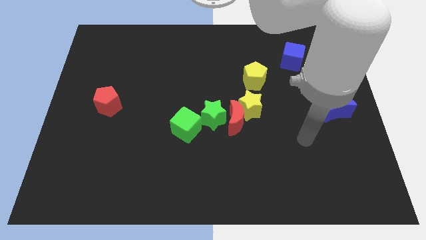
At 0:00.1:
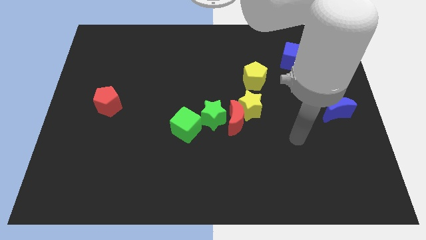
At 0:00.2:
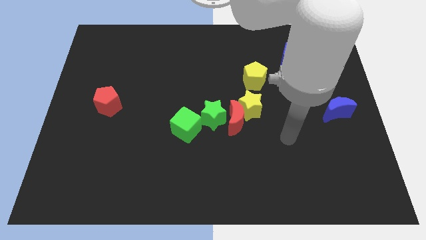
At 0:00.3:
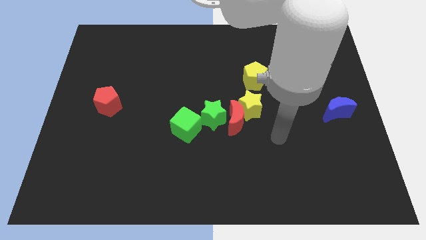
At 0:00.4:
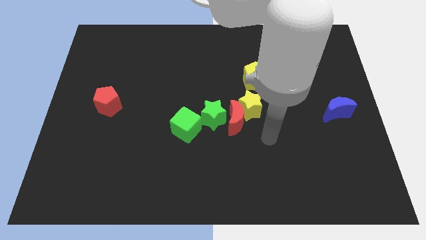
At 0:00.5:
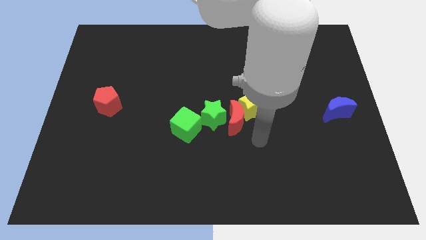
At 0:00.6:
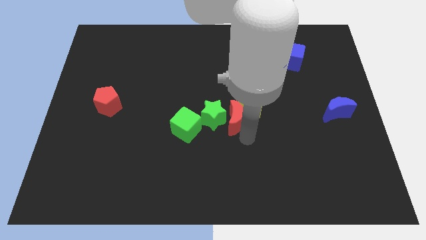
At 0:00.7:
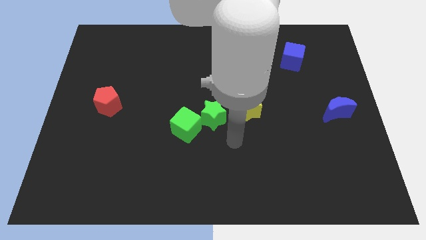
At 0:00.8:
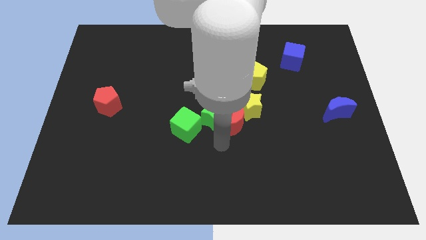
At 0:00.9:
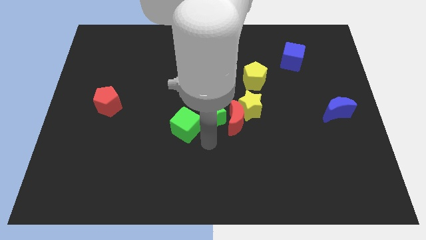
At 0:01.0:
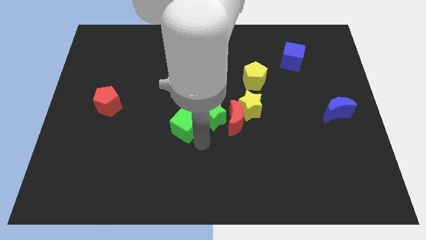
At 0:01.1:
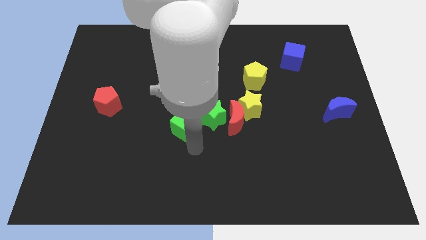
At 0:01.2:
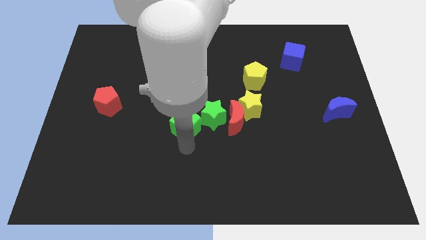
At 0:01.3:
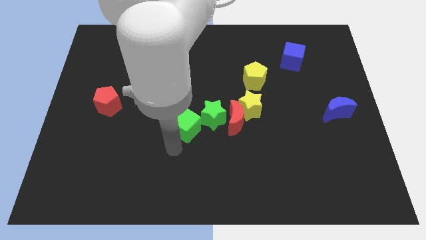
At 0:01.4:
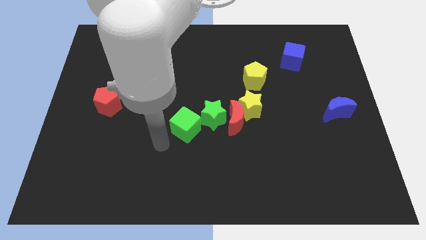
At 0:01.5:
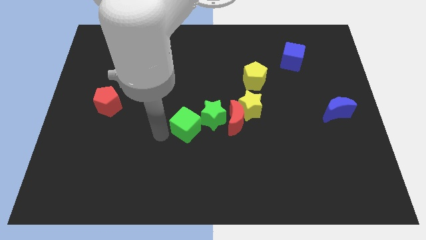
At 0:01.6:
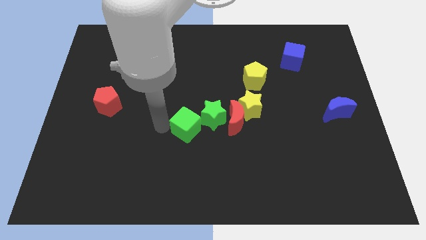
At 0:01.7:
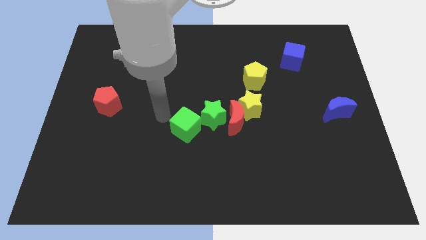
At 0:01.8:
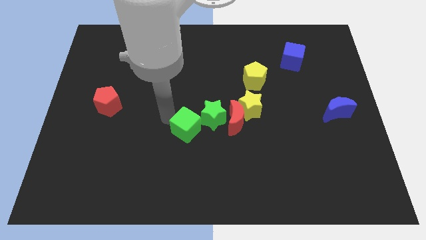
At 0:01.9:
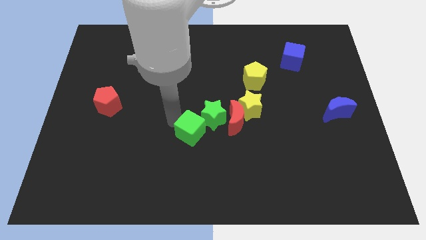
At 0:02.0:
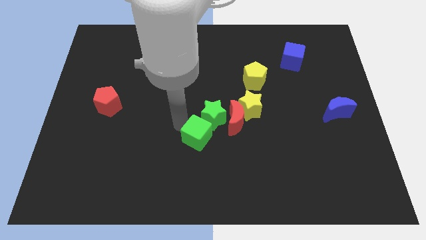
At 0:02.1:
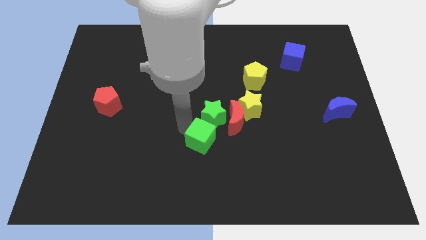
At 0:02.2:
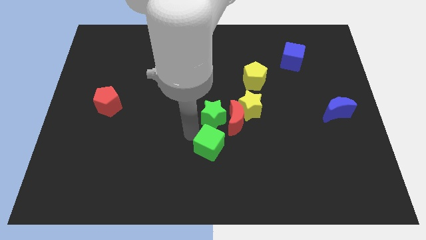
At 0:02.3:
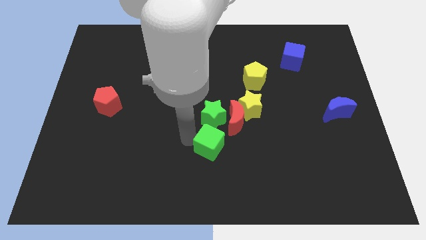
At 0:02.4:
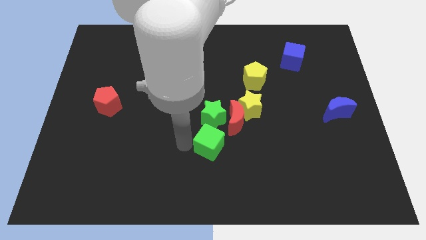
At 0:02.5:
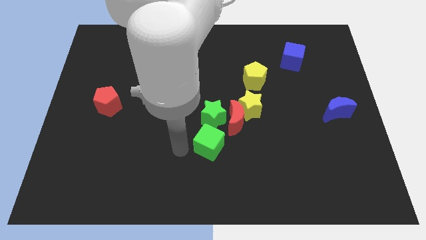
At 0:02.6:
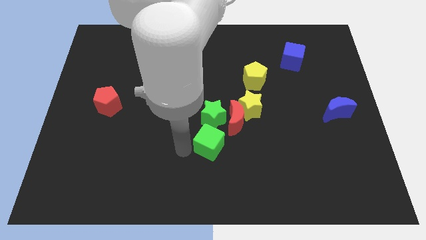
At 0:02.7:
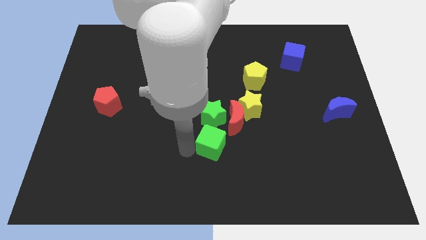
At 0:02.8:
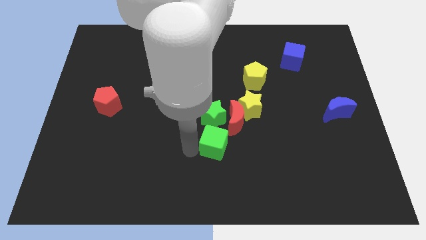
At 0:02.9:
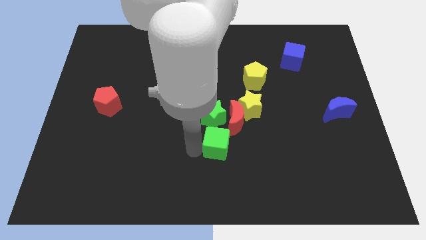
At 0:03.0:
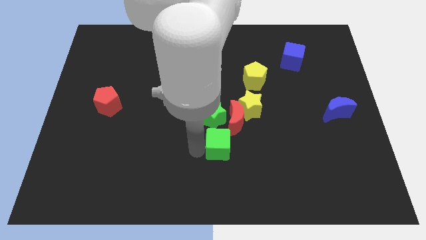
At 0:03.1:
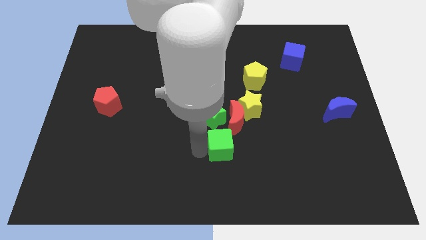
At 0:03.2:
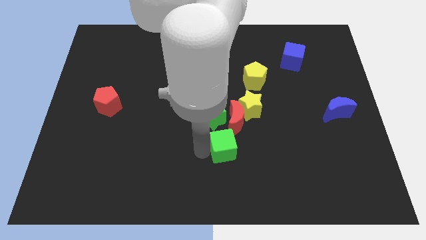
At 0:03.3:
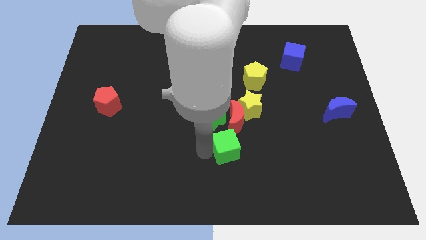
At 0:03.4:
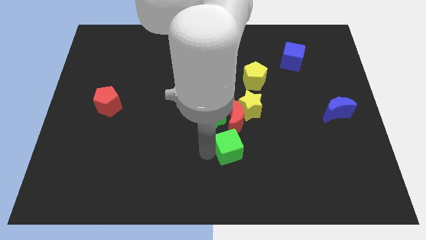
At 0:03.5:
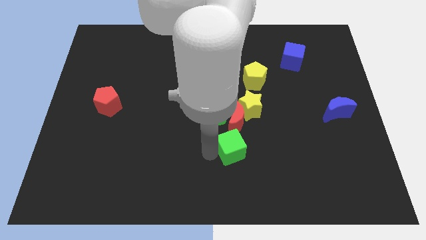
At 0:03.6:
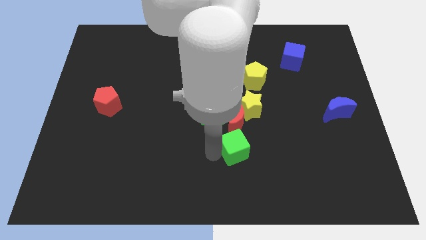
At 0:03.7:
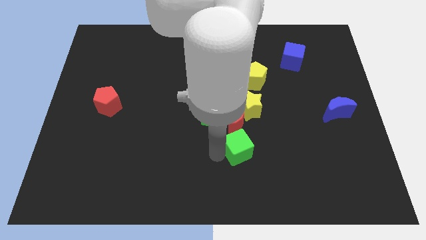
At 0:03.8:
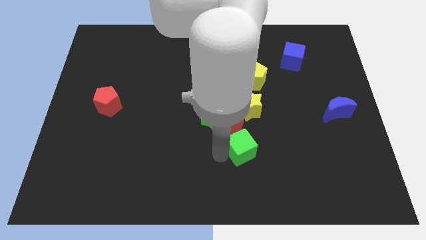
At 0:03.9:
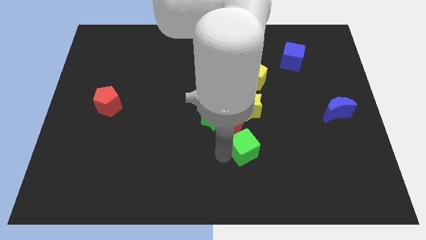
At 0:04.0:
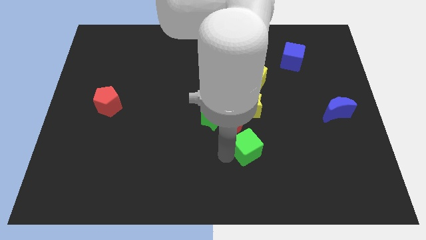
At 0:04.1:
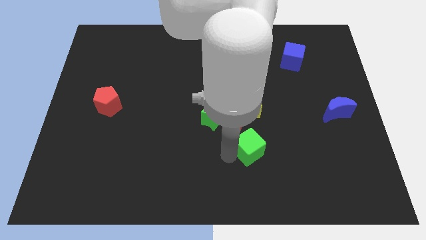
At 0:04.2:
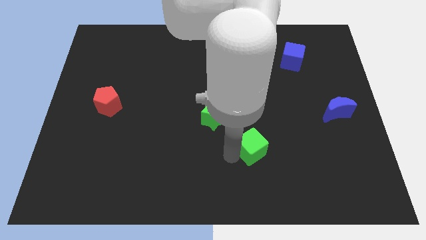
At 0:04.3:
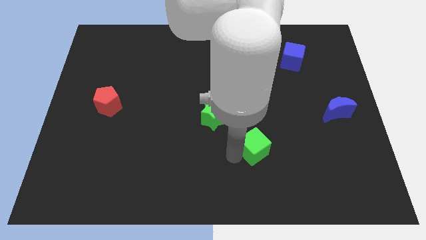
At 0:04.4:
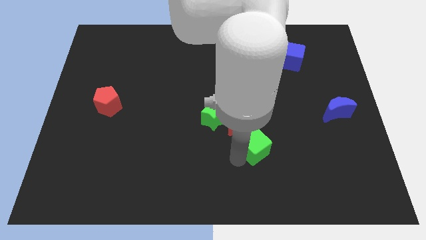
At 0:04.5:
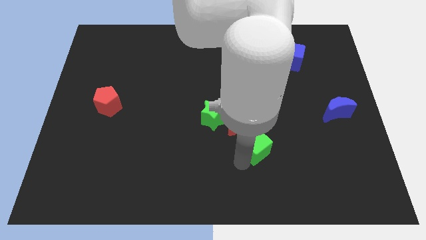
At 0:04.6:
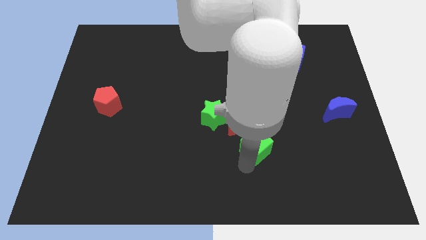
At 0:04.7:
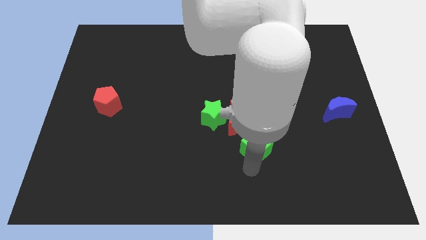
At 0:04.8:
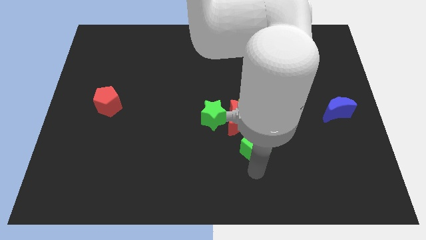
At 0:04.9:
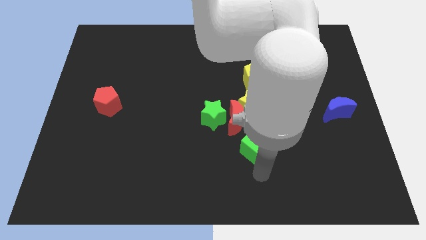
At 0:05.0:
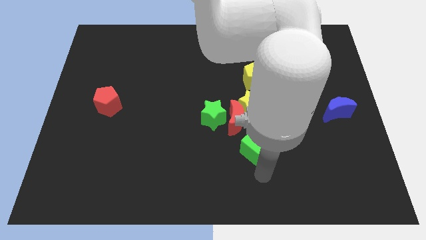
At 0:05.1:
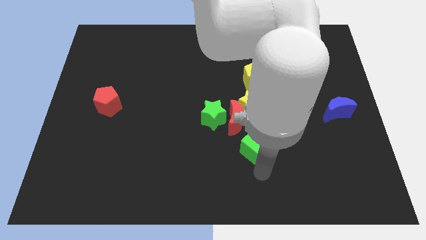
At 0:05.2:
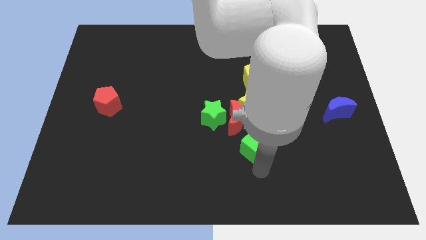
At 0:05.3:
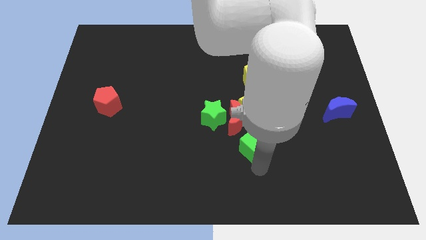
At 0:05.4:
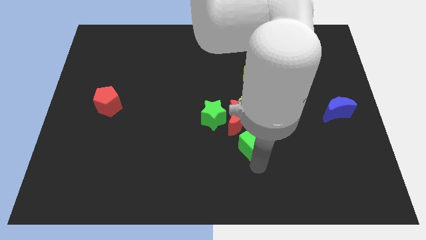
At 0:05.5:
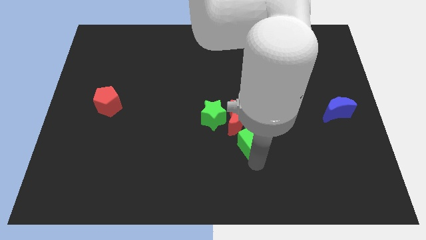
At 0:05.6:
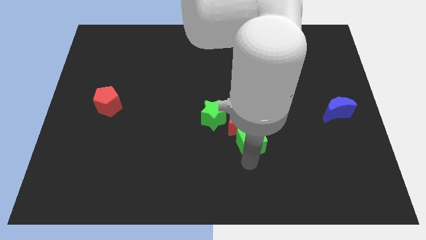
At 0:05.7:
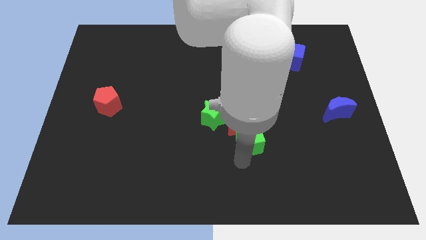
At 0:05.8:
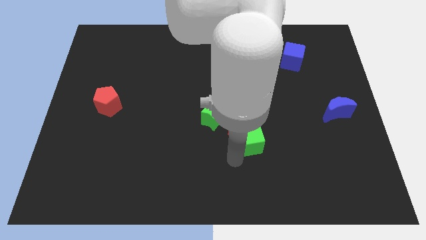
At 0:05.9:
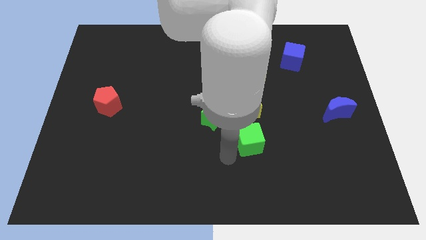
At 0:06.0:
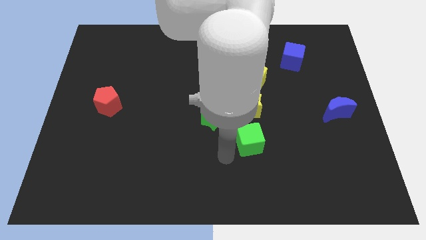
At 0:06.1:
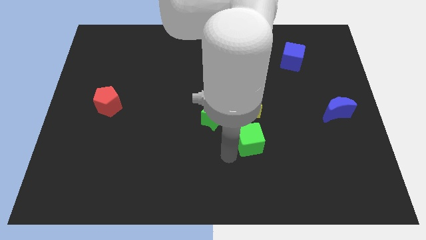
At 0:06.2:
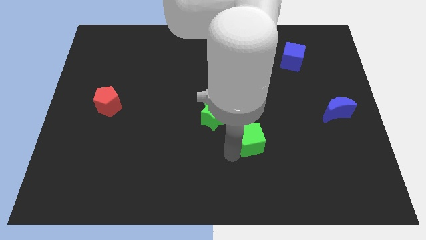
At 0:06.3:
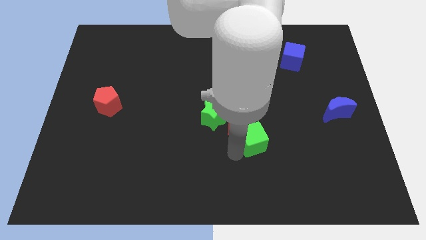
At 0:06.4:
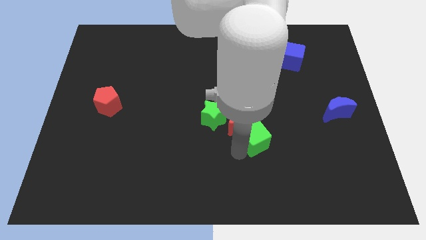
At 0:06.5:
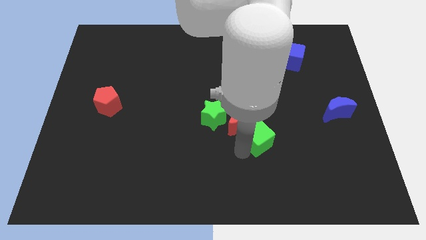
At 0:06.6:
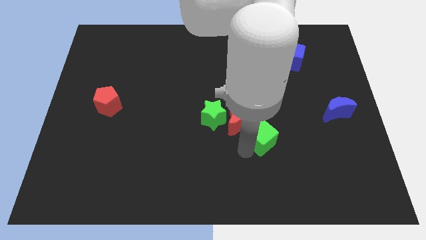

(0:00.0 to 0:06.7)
put the green cube to the bottom right of the yellow star
